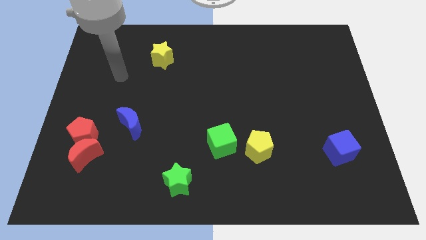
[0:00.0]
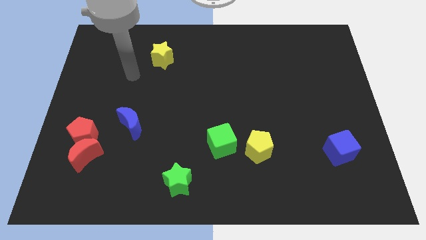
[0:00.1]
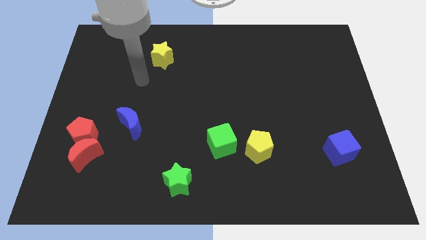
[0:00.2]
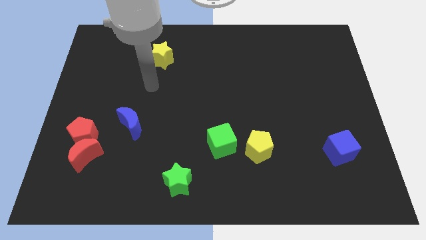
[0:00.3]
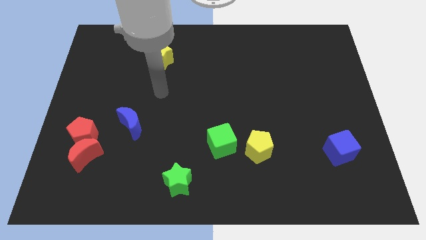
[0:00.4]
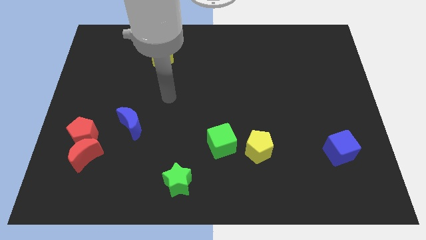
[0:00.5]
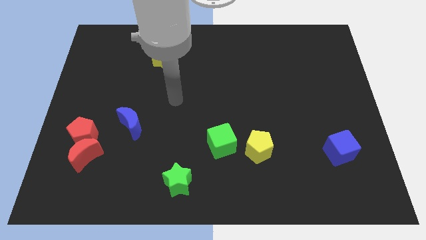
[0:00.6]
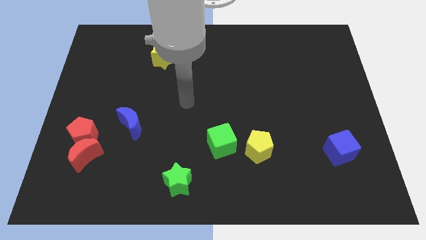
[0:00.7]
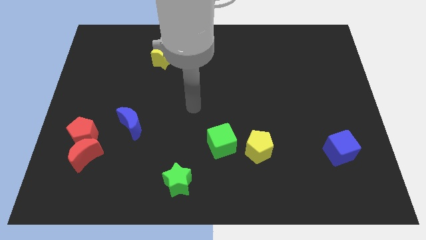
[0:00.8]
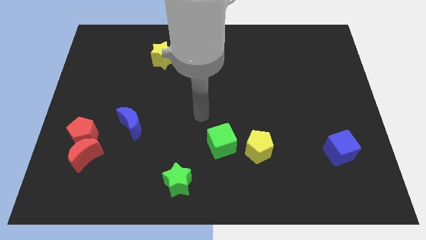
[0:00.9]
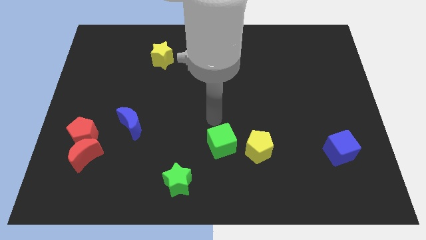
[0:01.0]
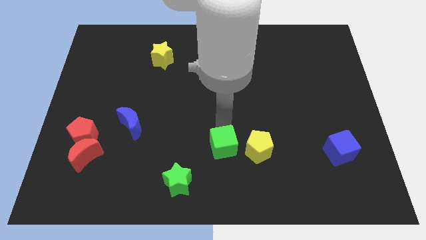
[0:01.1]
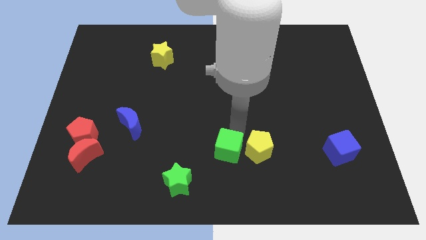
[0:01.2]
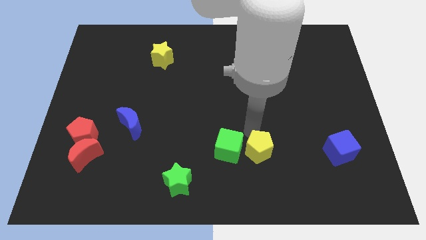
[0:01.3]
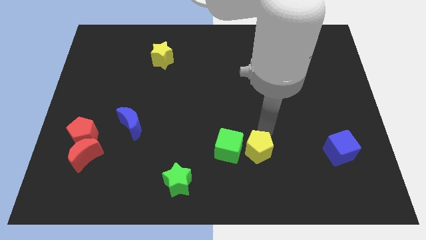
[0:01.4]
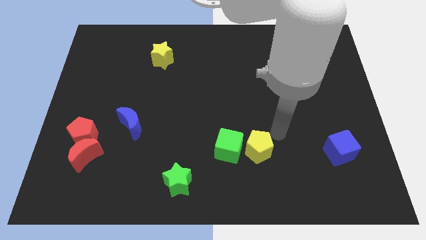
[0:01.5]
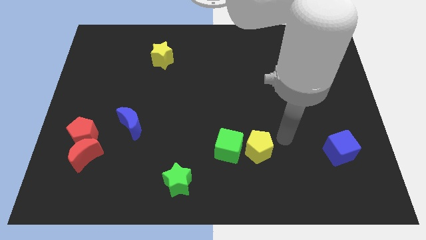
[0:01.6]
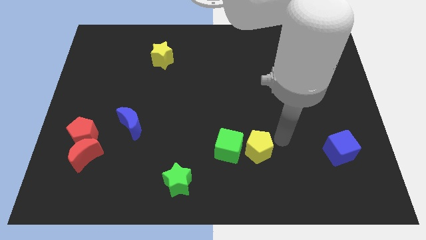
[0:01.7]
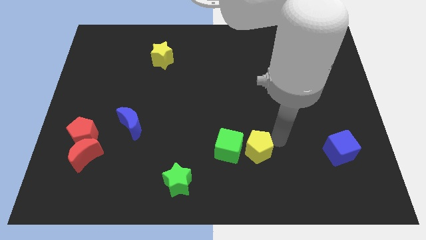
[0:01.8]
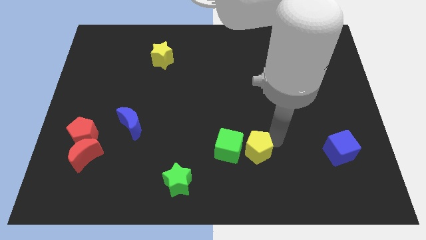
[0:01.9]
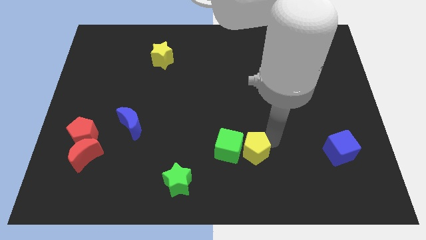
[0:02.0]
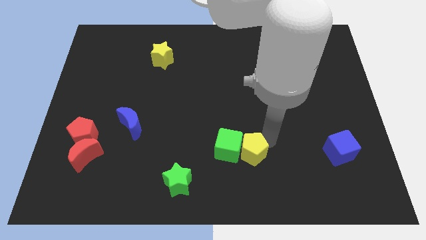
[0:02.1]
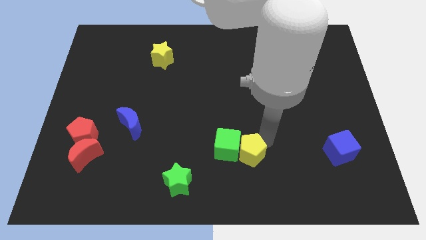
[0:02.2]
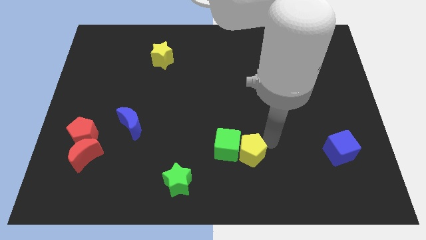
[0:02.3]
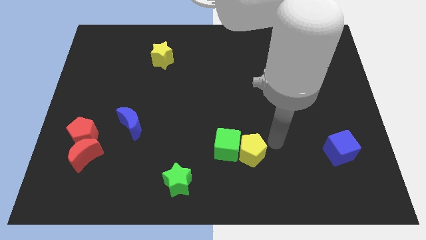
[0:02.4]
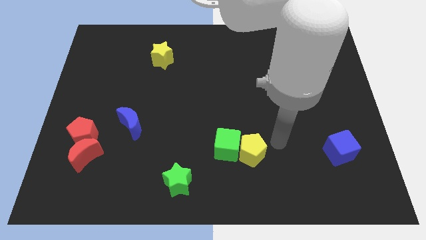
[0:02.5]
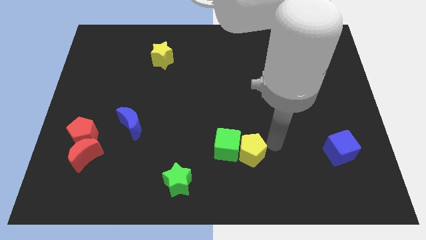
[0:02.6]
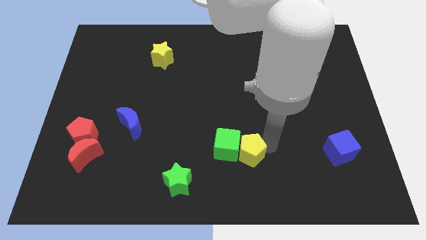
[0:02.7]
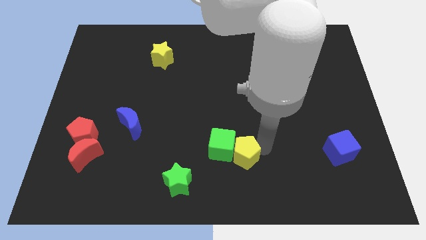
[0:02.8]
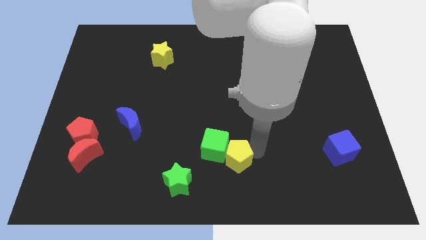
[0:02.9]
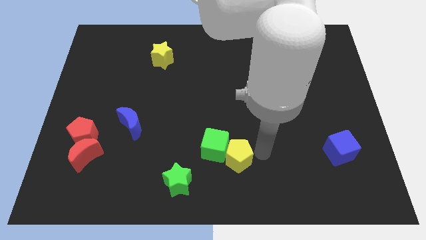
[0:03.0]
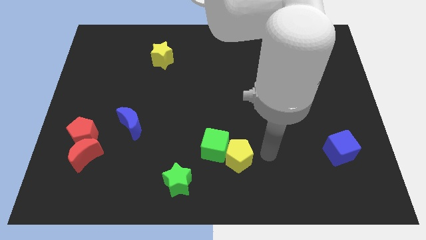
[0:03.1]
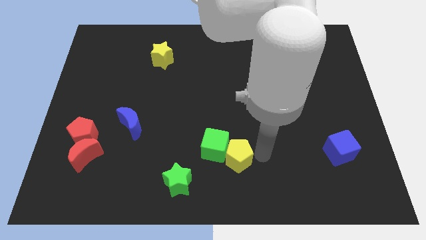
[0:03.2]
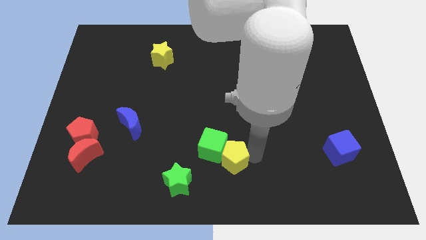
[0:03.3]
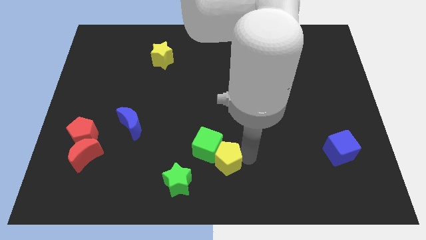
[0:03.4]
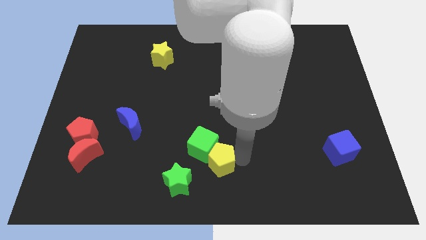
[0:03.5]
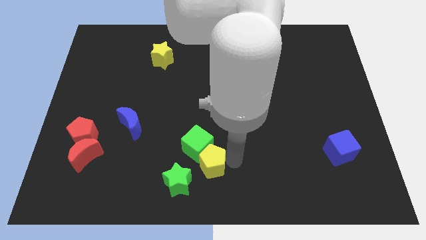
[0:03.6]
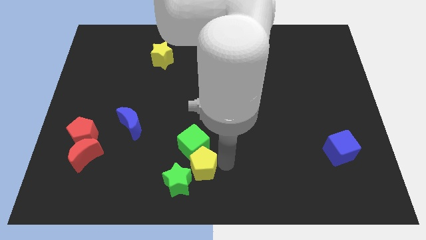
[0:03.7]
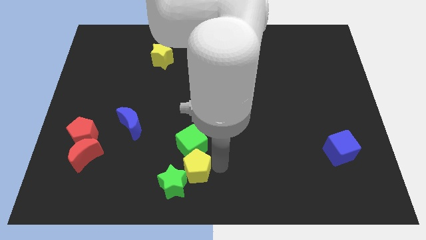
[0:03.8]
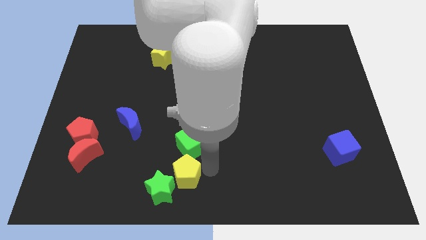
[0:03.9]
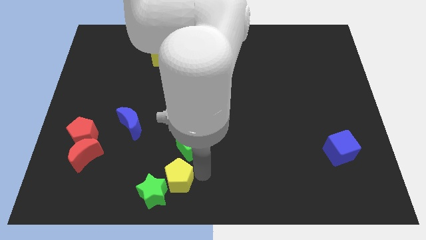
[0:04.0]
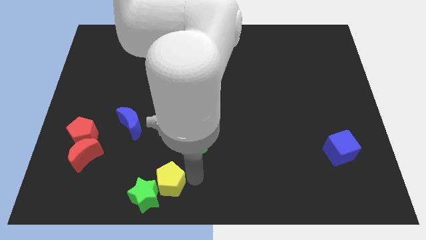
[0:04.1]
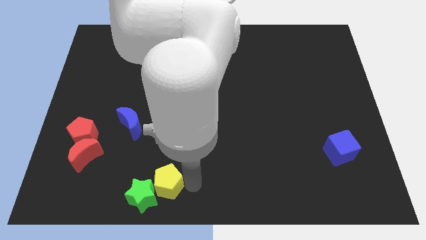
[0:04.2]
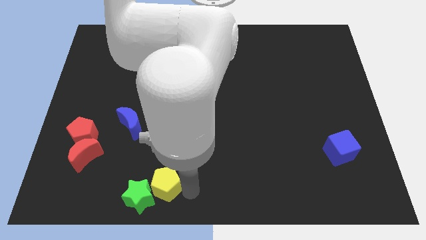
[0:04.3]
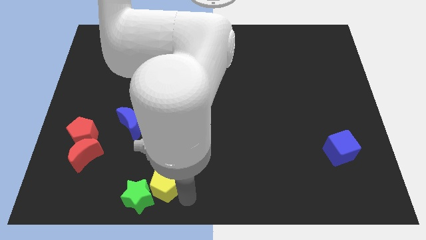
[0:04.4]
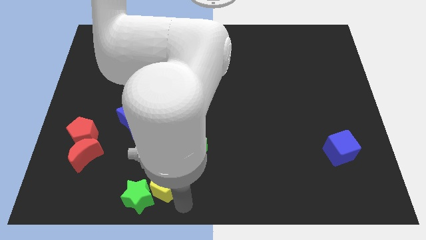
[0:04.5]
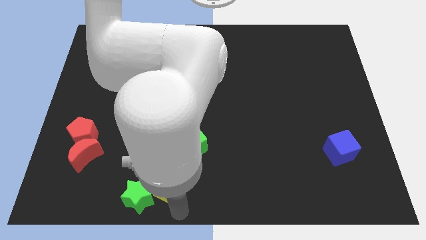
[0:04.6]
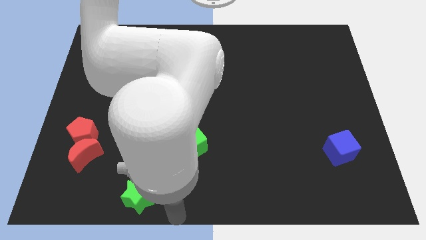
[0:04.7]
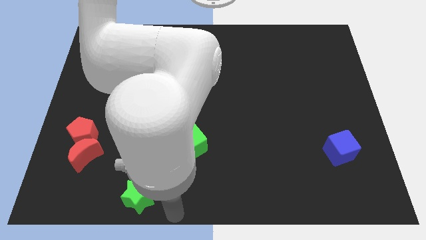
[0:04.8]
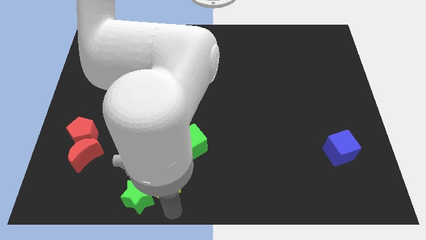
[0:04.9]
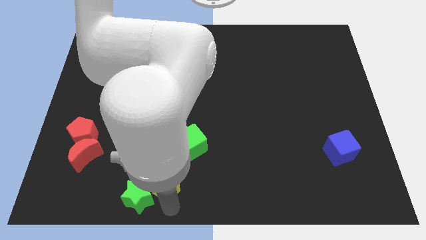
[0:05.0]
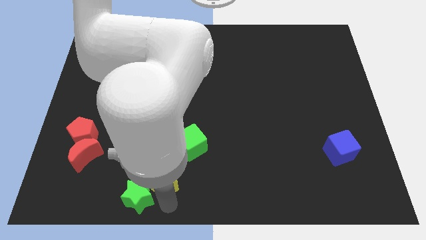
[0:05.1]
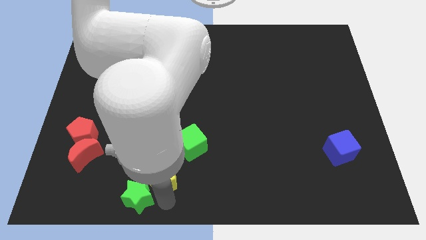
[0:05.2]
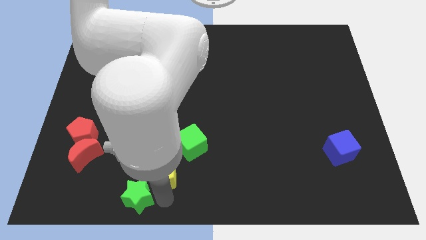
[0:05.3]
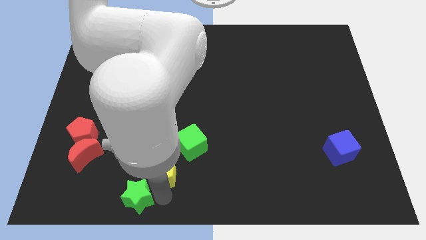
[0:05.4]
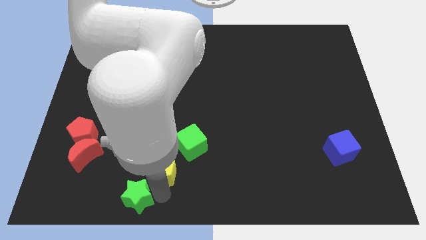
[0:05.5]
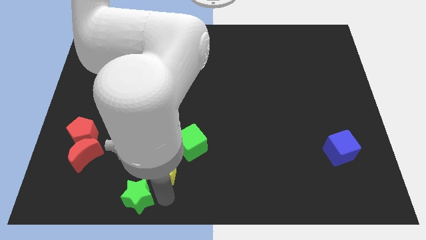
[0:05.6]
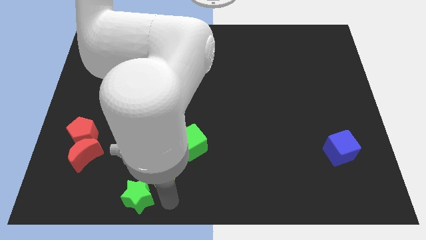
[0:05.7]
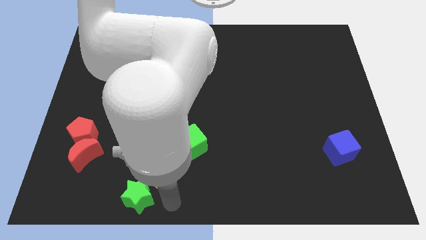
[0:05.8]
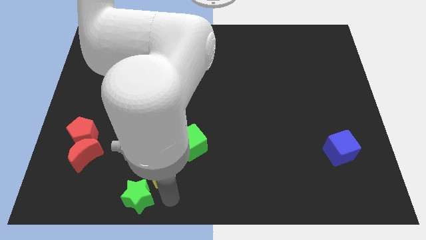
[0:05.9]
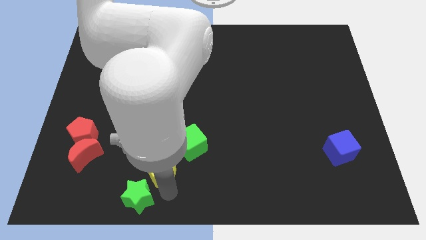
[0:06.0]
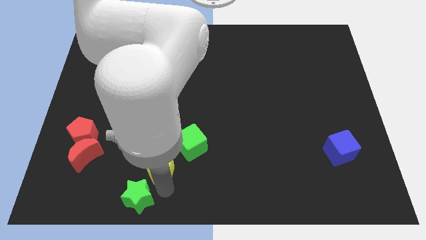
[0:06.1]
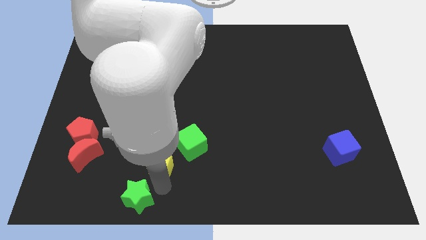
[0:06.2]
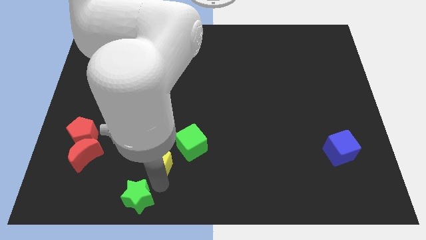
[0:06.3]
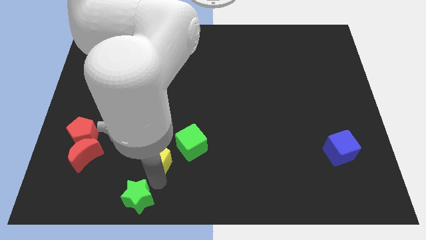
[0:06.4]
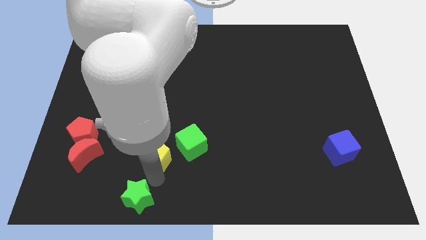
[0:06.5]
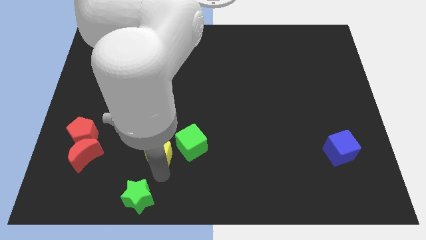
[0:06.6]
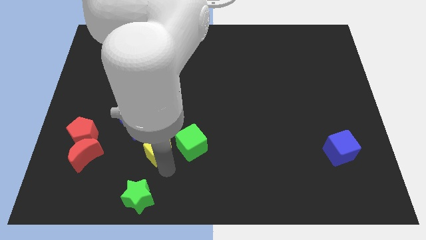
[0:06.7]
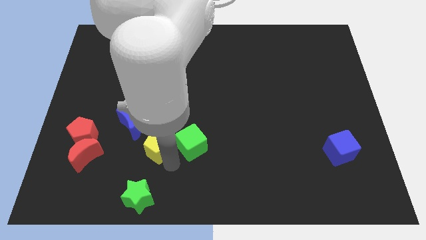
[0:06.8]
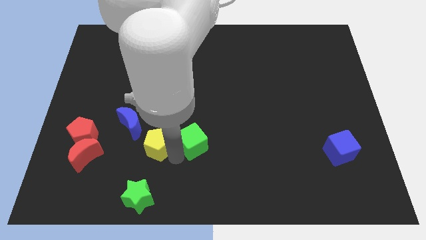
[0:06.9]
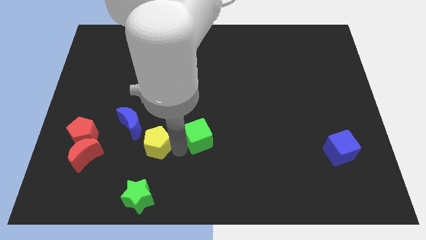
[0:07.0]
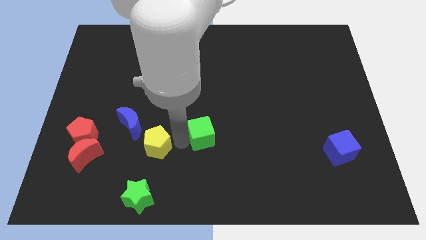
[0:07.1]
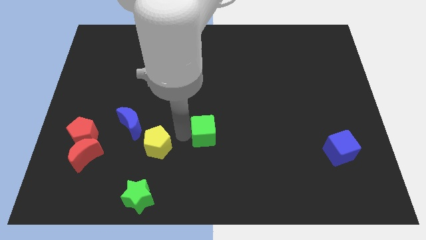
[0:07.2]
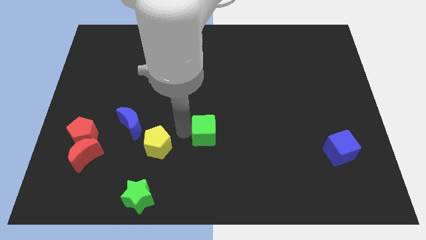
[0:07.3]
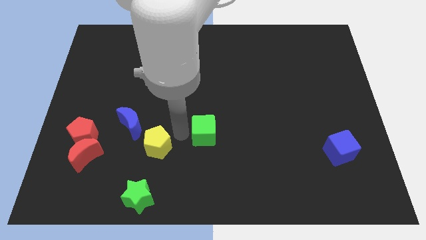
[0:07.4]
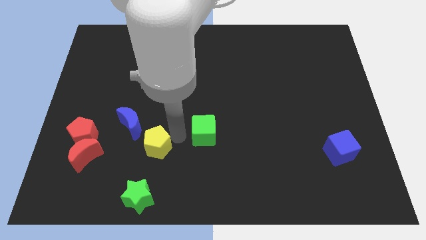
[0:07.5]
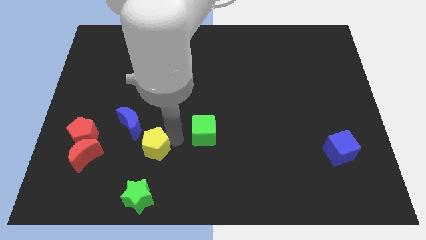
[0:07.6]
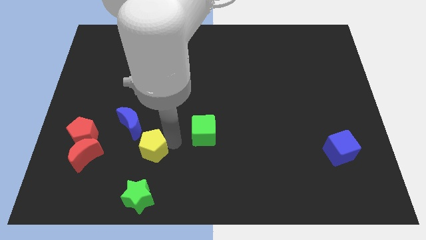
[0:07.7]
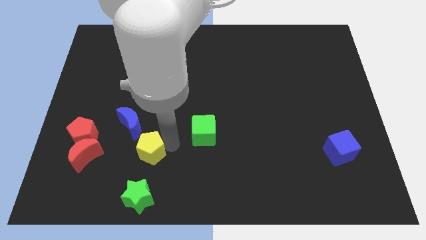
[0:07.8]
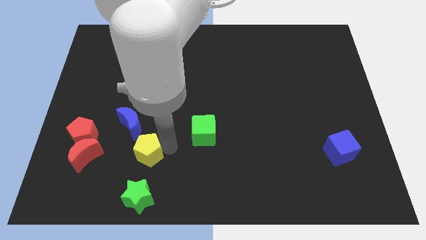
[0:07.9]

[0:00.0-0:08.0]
slide the yellow pentagon below the blue moon

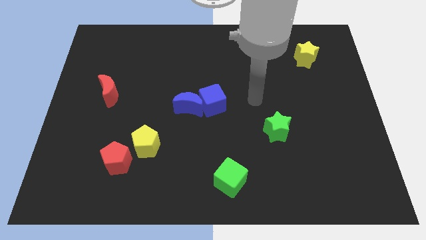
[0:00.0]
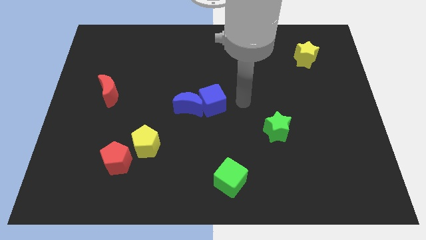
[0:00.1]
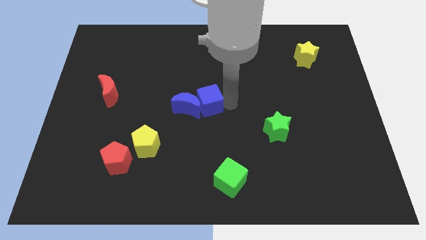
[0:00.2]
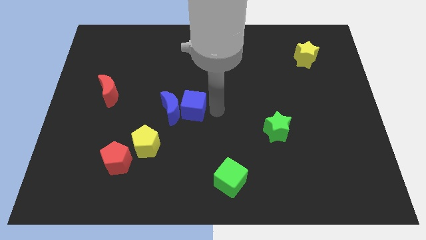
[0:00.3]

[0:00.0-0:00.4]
put the blue moon to the top side of the yellow pentagon
